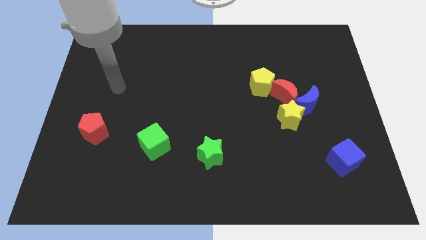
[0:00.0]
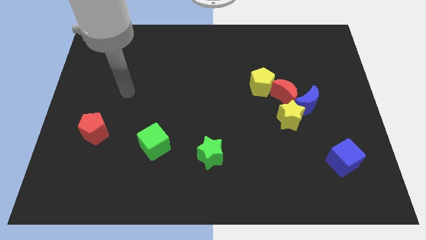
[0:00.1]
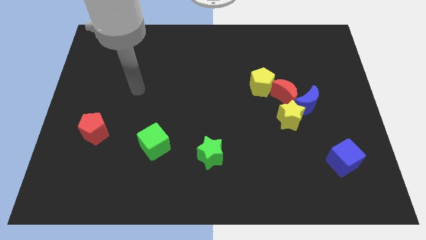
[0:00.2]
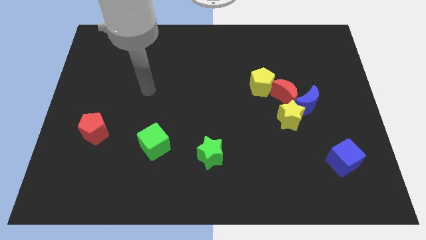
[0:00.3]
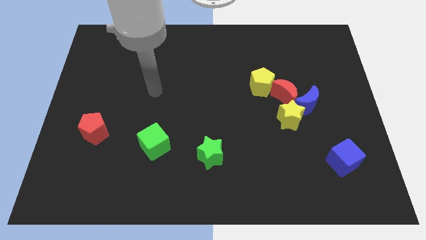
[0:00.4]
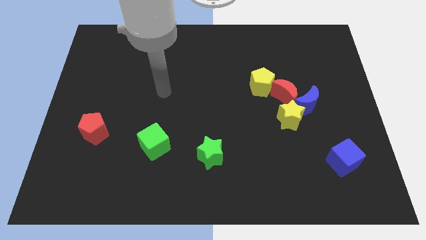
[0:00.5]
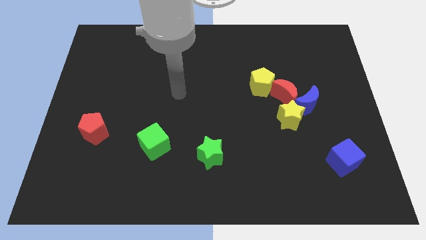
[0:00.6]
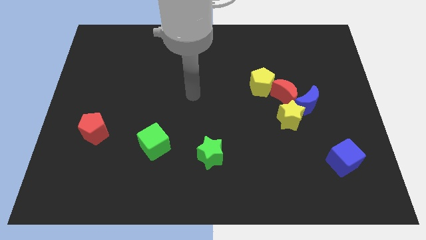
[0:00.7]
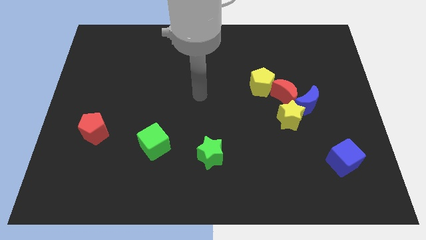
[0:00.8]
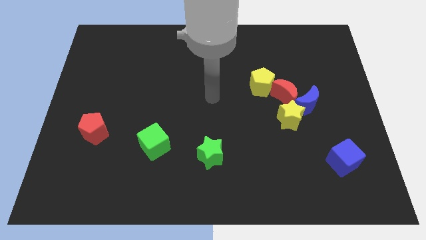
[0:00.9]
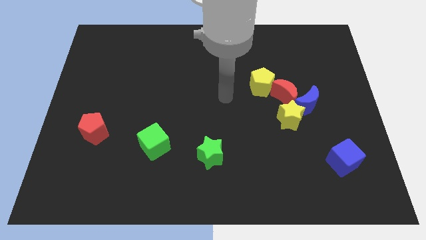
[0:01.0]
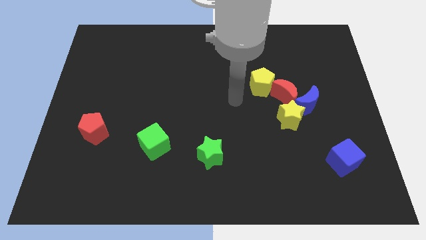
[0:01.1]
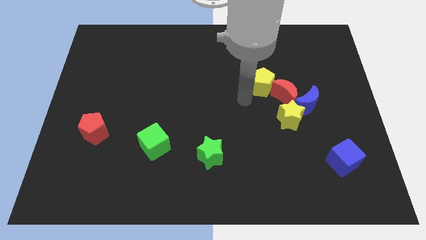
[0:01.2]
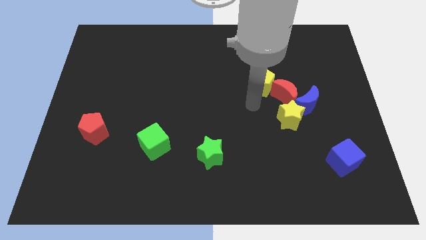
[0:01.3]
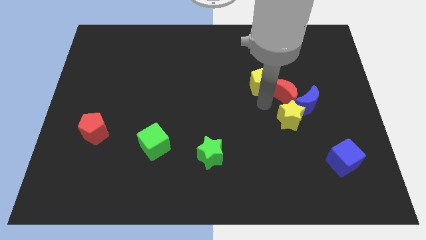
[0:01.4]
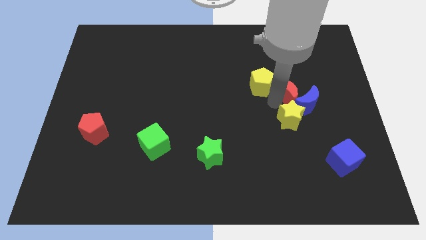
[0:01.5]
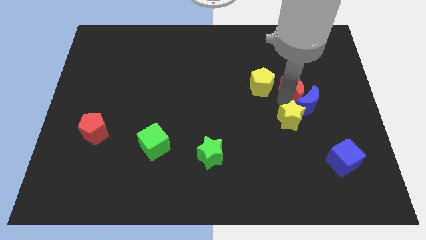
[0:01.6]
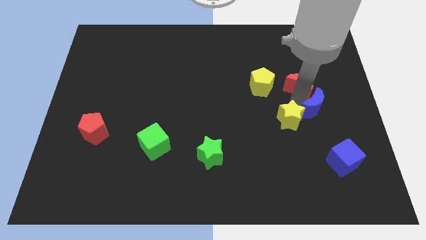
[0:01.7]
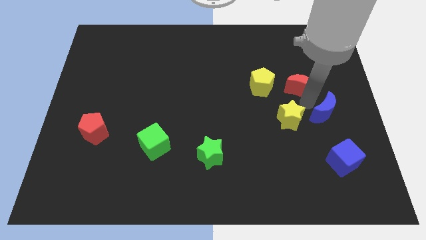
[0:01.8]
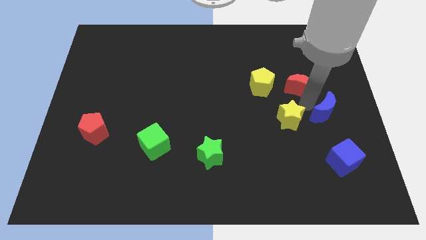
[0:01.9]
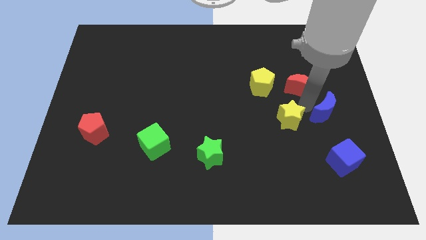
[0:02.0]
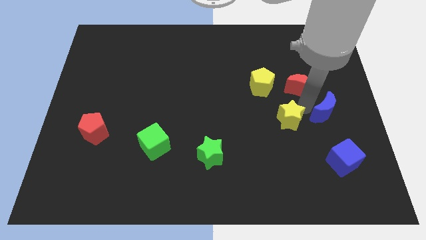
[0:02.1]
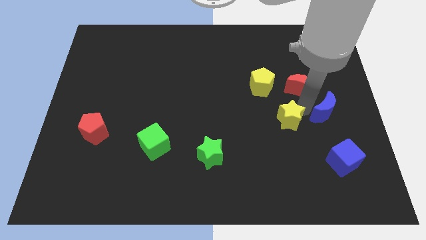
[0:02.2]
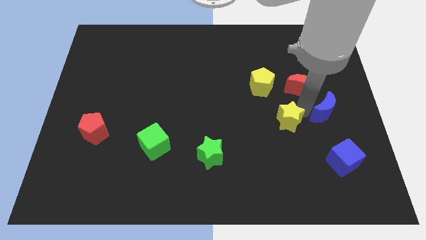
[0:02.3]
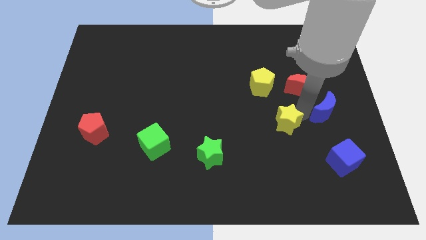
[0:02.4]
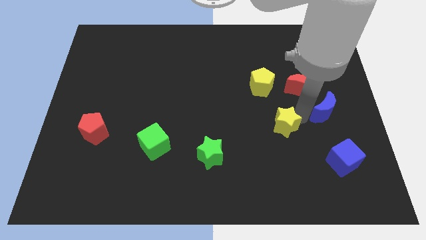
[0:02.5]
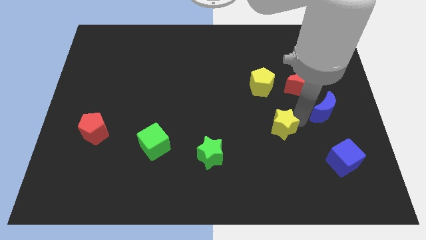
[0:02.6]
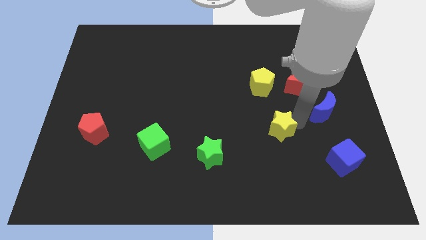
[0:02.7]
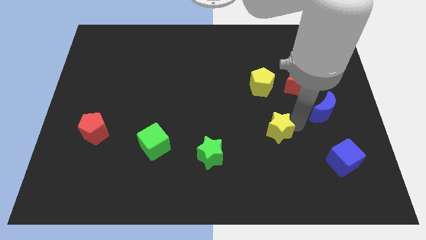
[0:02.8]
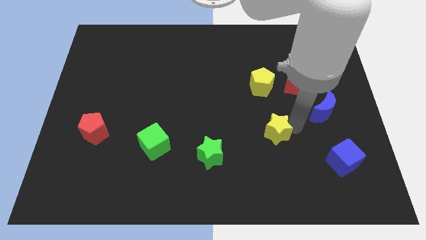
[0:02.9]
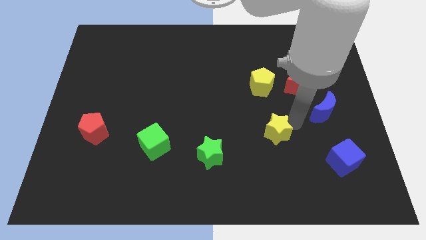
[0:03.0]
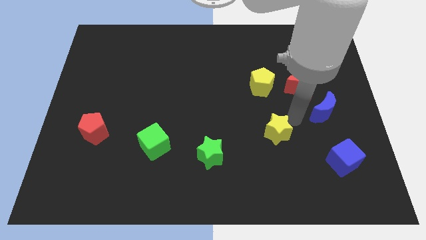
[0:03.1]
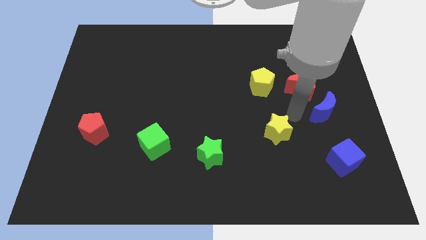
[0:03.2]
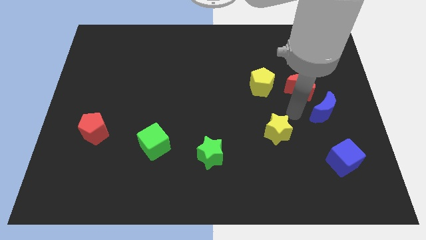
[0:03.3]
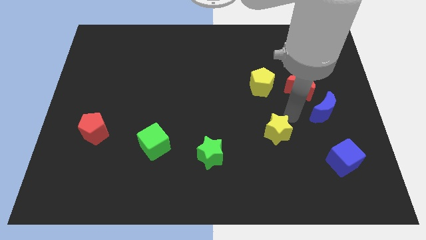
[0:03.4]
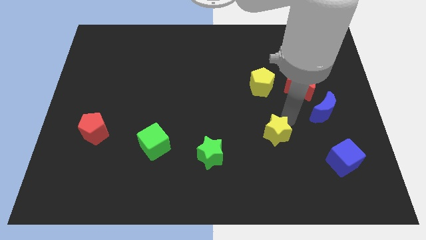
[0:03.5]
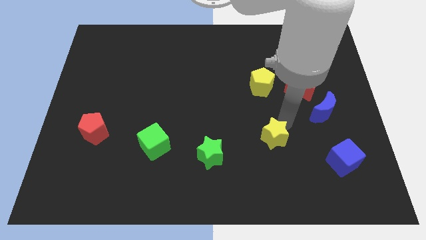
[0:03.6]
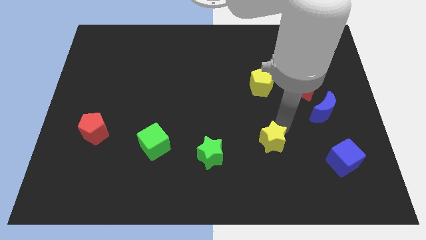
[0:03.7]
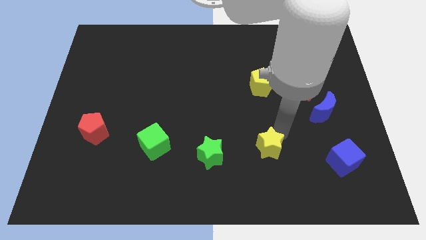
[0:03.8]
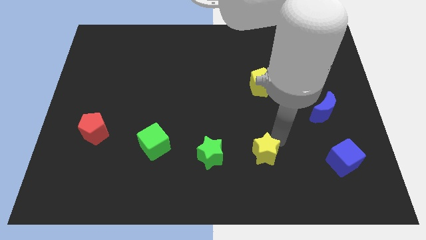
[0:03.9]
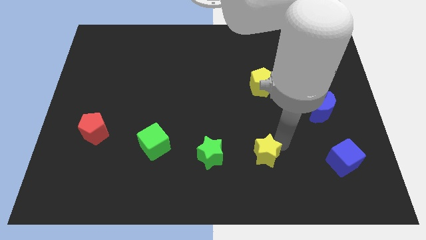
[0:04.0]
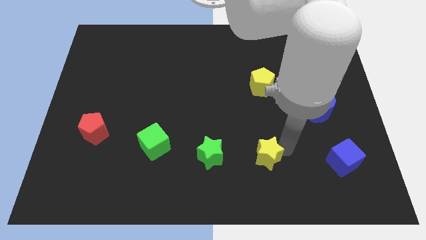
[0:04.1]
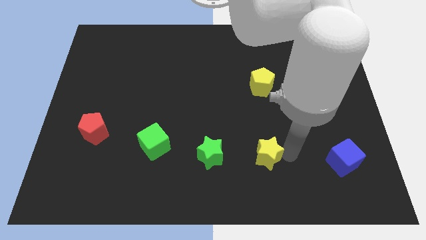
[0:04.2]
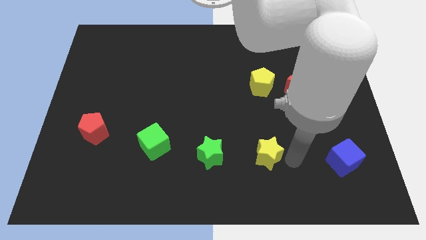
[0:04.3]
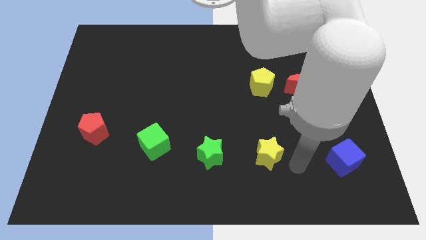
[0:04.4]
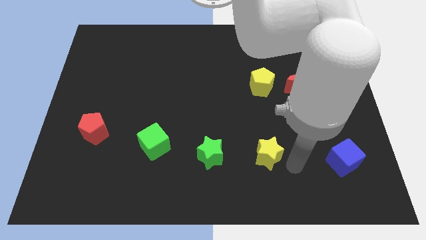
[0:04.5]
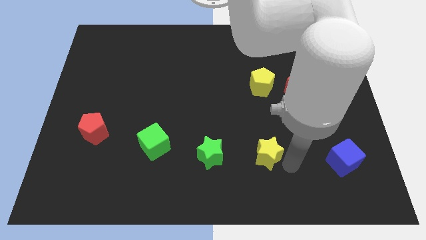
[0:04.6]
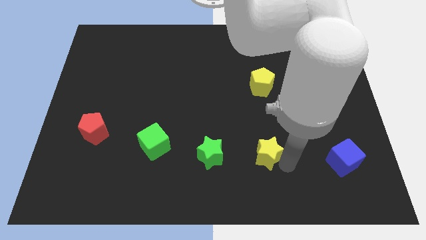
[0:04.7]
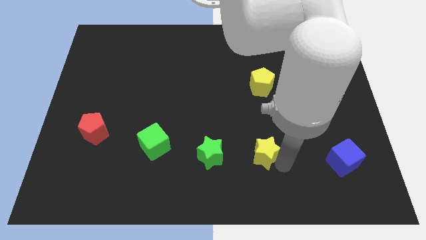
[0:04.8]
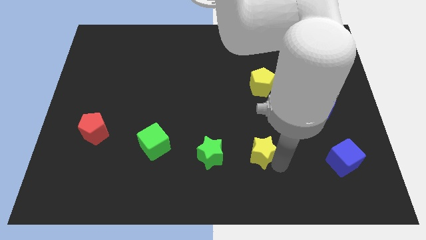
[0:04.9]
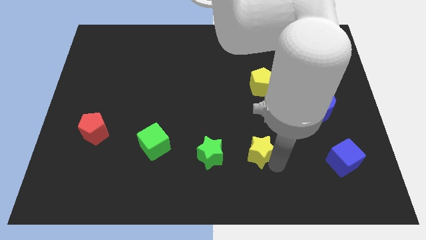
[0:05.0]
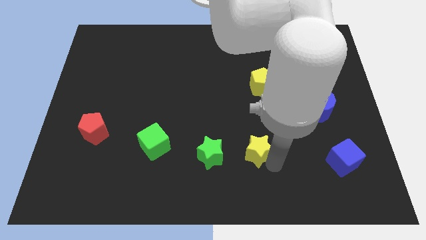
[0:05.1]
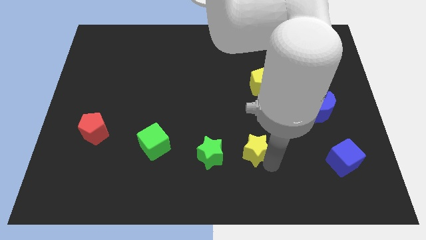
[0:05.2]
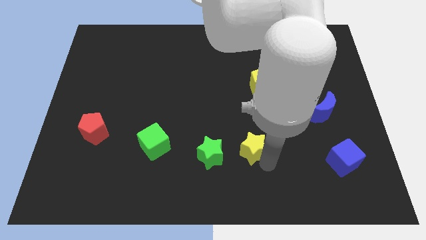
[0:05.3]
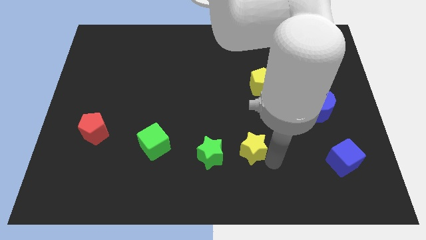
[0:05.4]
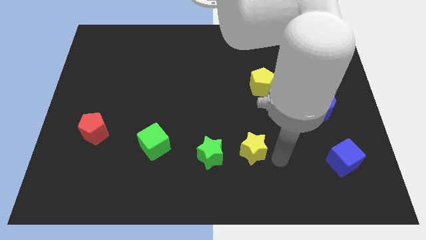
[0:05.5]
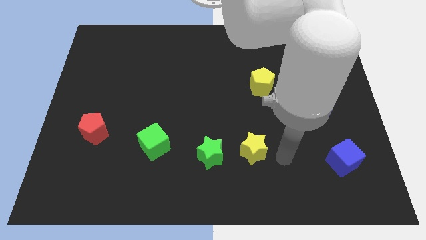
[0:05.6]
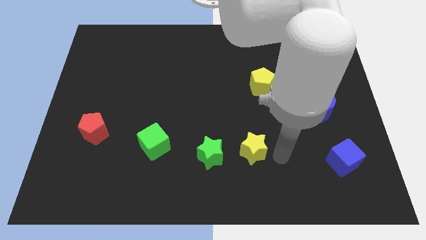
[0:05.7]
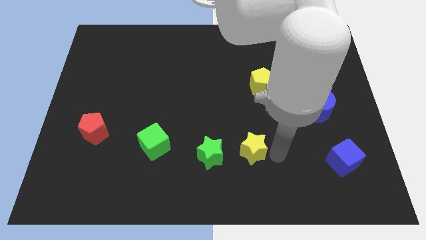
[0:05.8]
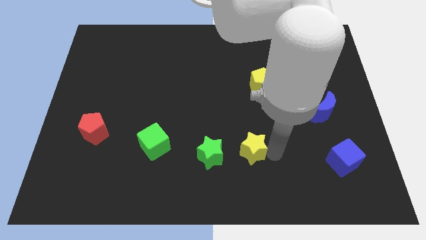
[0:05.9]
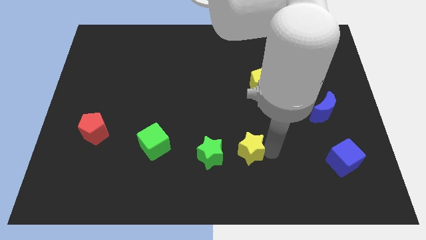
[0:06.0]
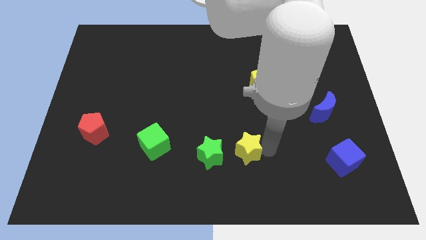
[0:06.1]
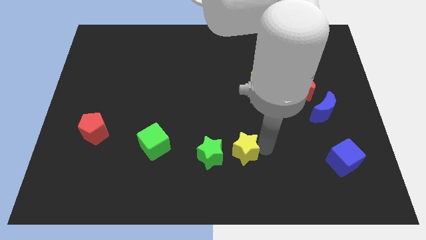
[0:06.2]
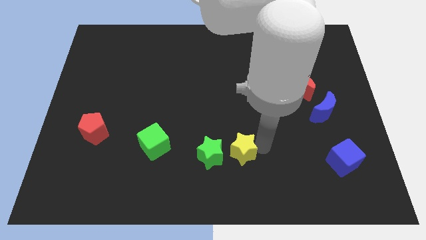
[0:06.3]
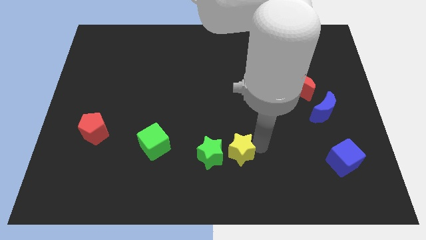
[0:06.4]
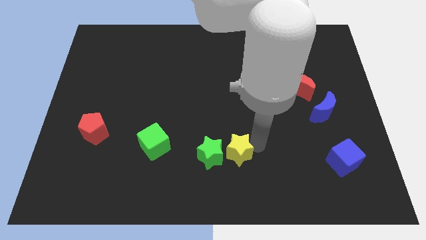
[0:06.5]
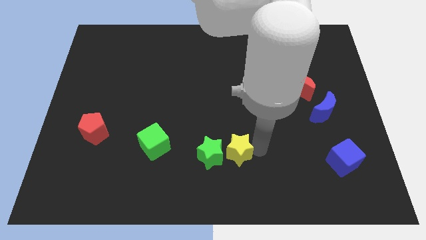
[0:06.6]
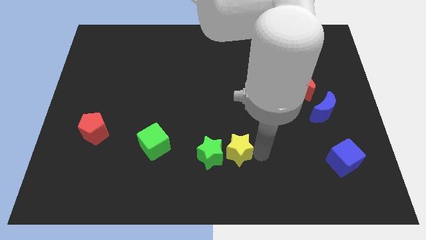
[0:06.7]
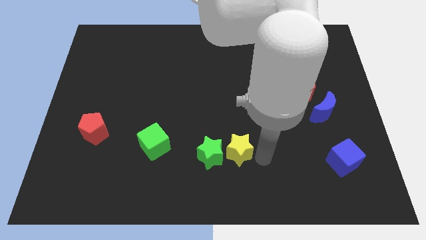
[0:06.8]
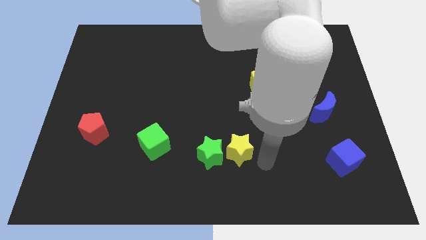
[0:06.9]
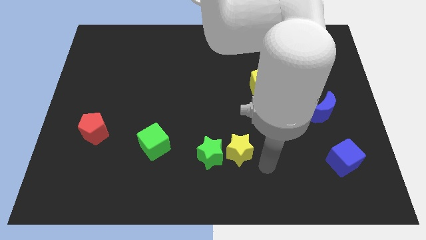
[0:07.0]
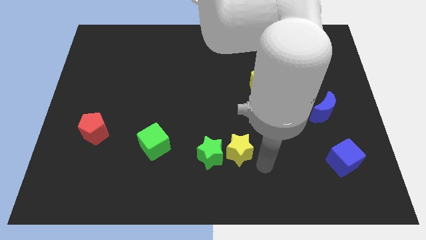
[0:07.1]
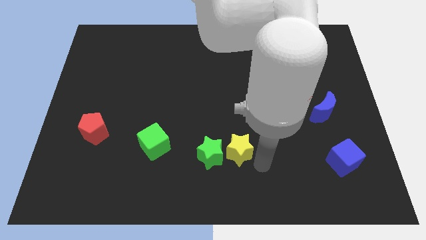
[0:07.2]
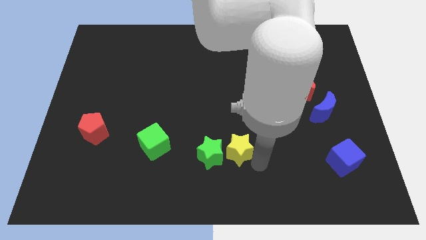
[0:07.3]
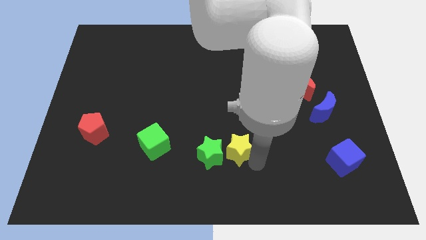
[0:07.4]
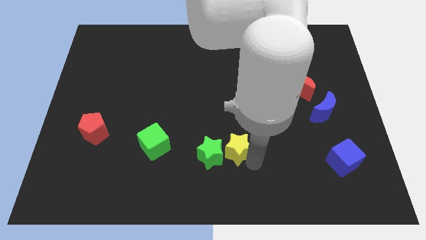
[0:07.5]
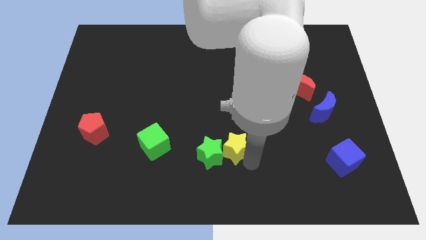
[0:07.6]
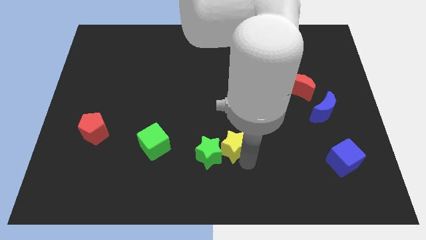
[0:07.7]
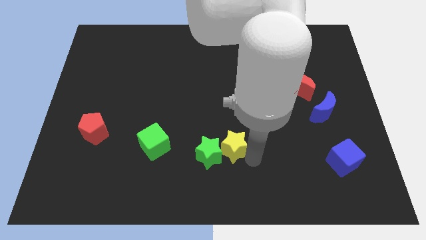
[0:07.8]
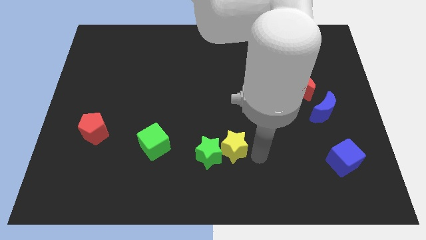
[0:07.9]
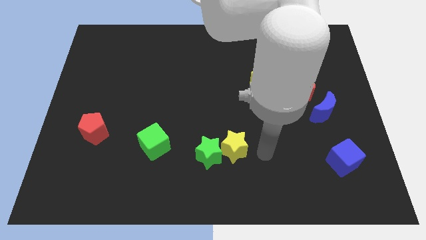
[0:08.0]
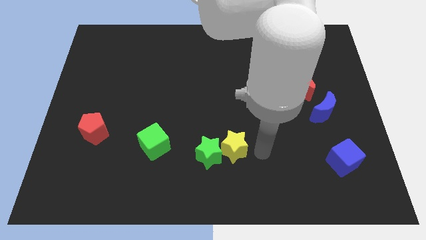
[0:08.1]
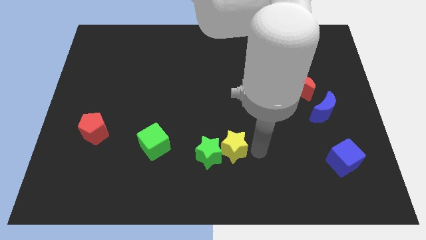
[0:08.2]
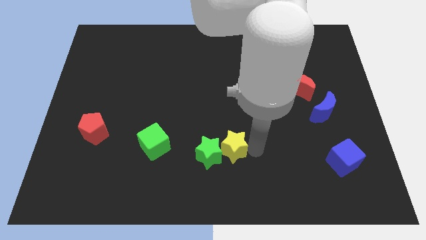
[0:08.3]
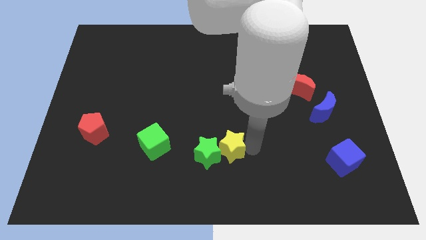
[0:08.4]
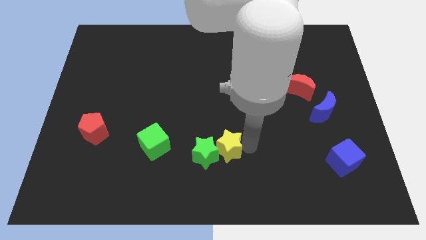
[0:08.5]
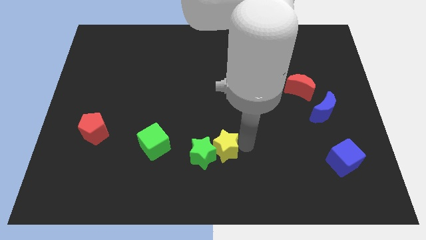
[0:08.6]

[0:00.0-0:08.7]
push the yellow star to the right side of the green cube
